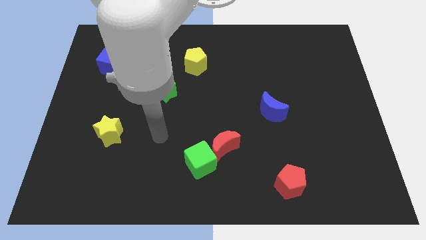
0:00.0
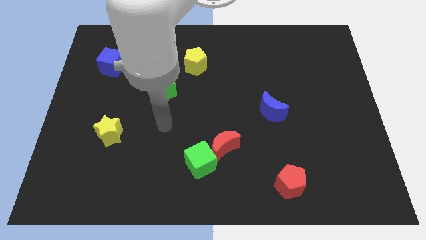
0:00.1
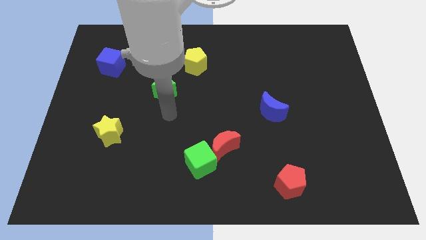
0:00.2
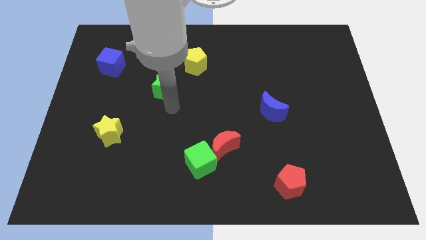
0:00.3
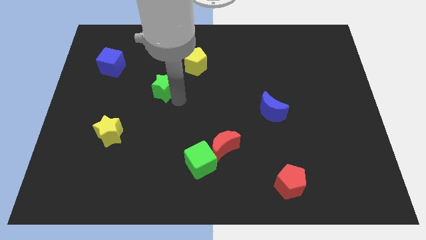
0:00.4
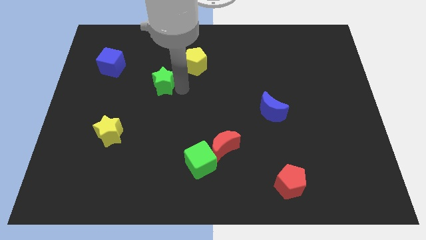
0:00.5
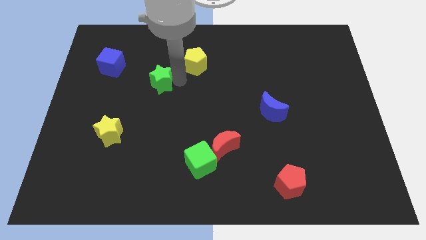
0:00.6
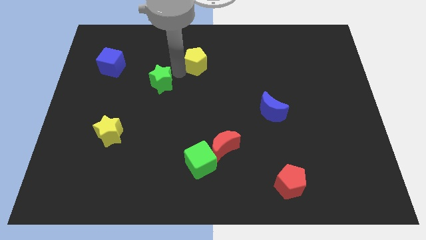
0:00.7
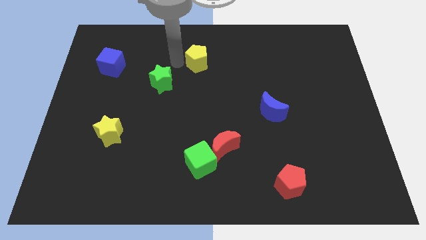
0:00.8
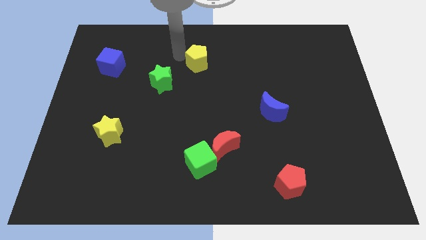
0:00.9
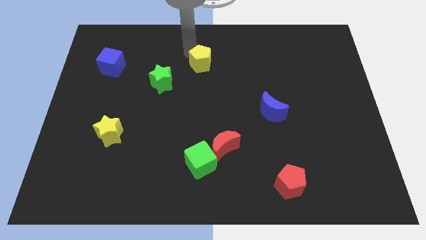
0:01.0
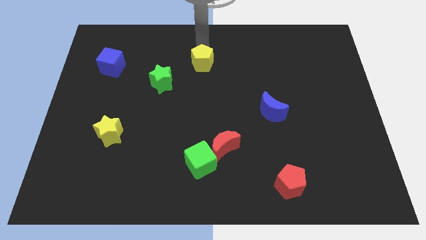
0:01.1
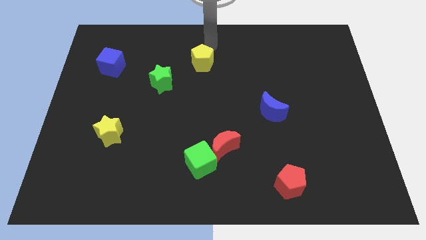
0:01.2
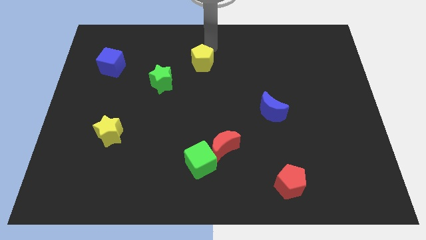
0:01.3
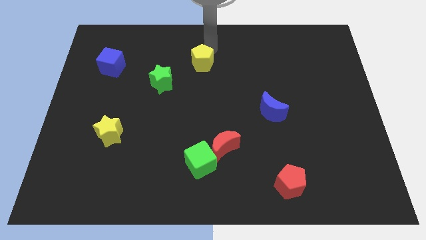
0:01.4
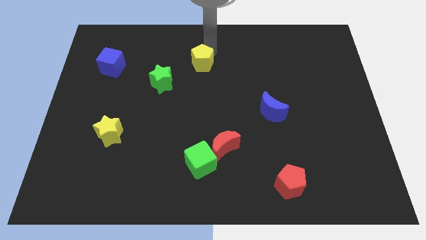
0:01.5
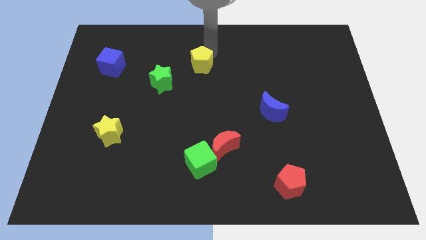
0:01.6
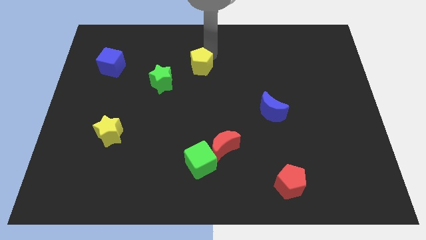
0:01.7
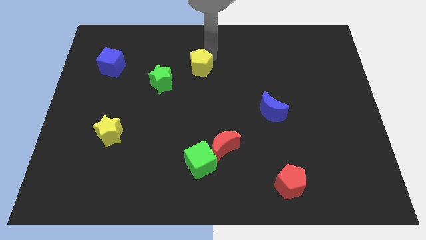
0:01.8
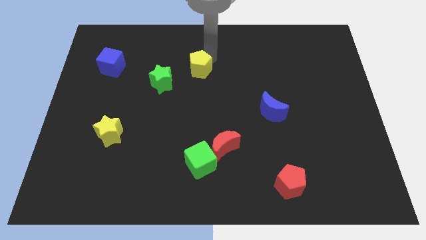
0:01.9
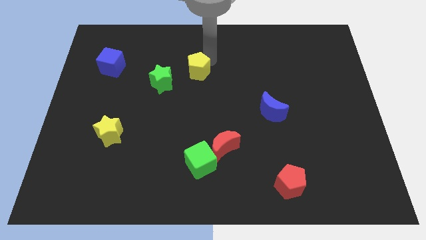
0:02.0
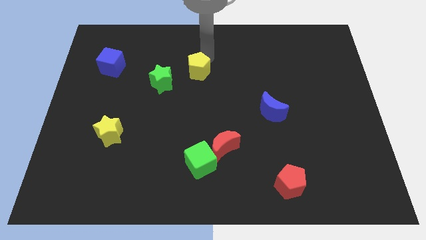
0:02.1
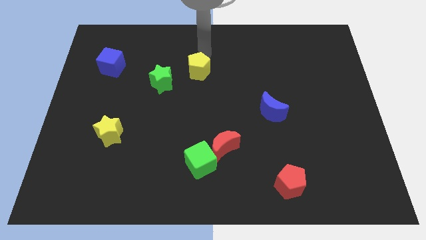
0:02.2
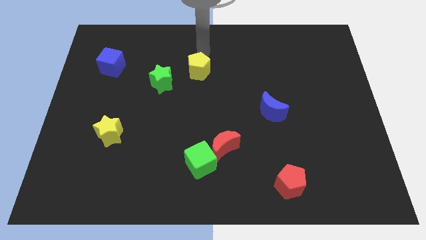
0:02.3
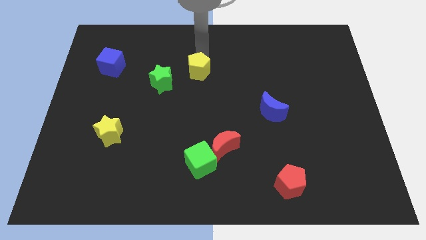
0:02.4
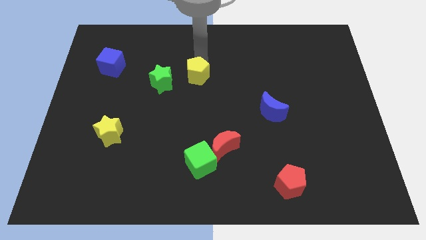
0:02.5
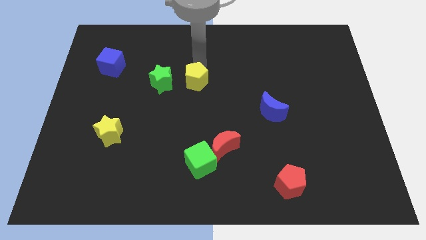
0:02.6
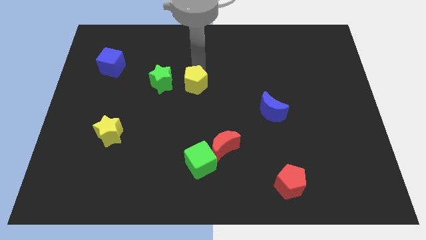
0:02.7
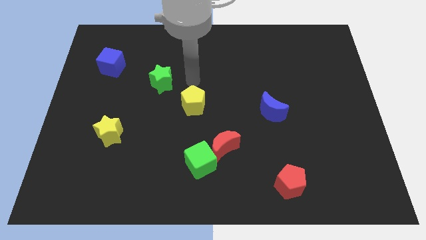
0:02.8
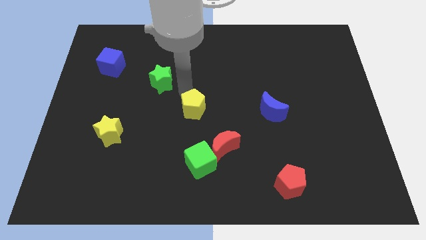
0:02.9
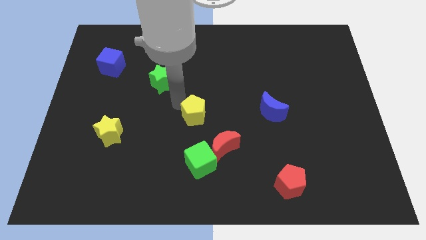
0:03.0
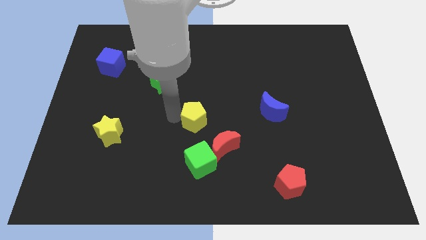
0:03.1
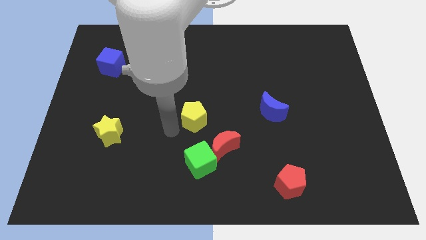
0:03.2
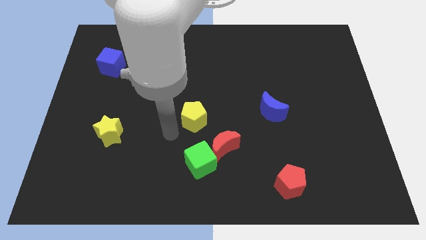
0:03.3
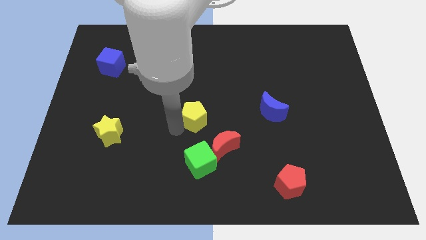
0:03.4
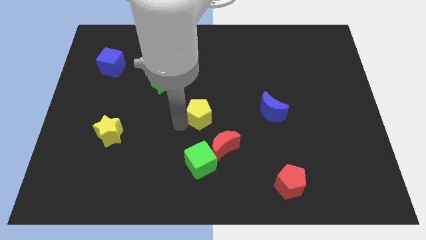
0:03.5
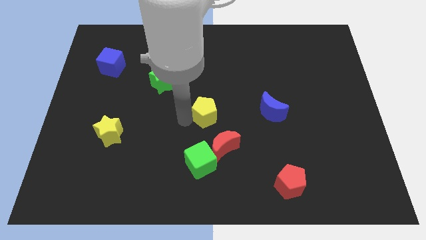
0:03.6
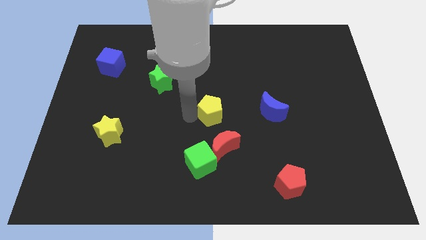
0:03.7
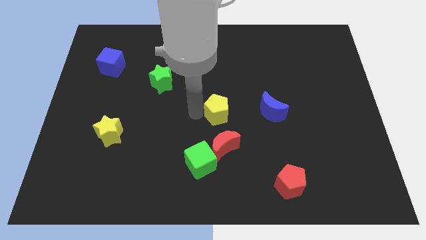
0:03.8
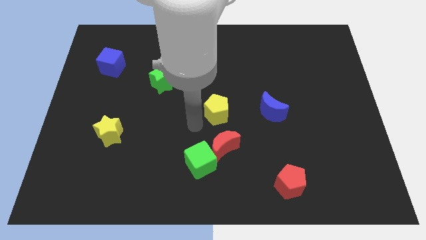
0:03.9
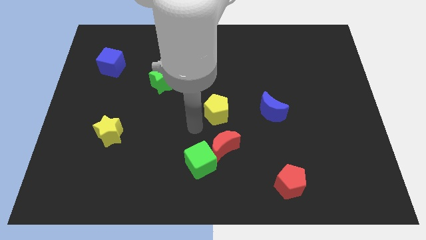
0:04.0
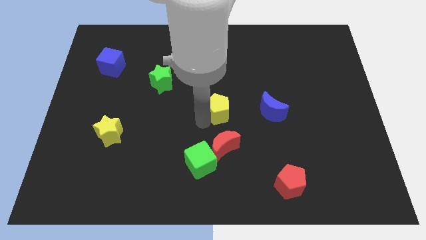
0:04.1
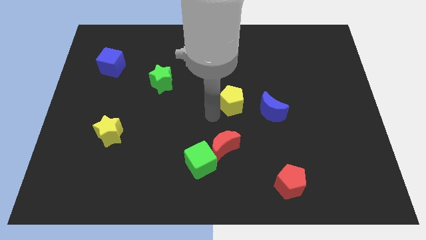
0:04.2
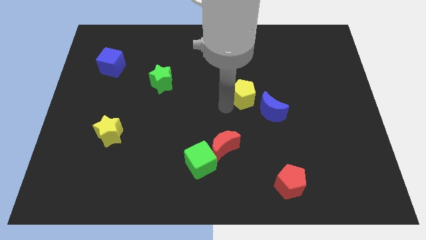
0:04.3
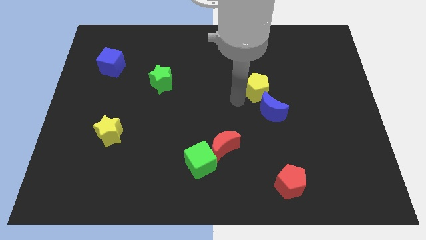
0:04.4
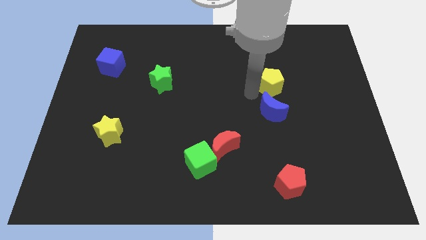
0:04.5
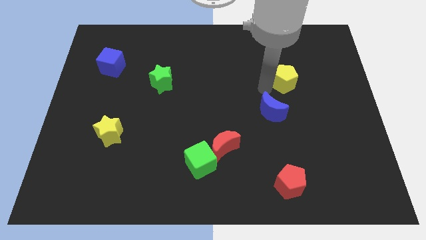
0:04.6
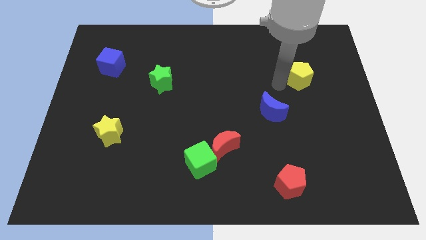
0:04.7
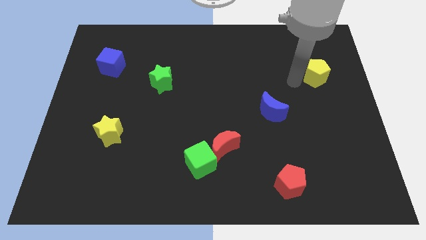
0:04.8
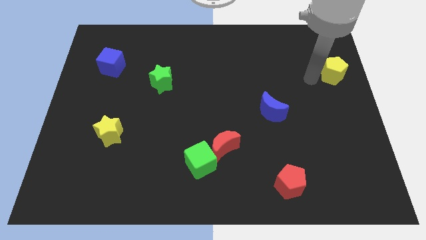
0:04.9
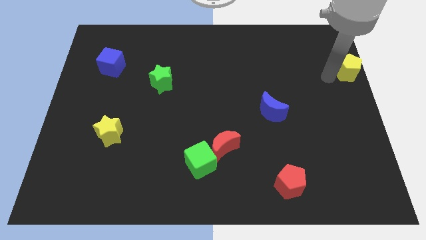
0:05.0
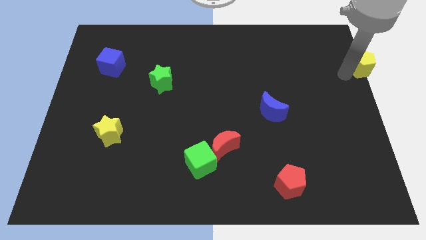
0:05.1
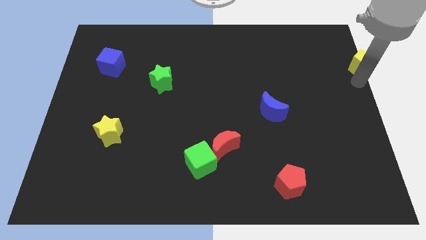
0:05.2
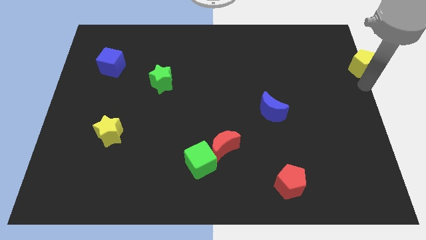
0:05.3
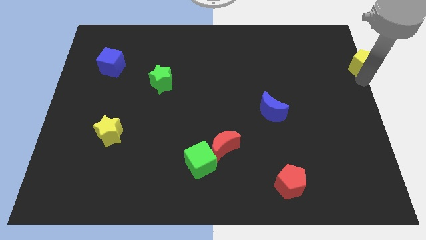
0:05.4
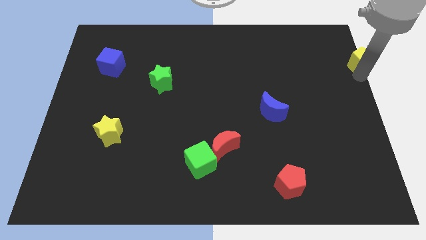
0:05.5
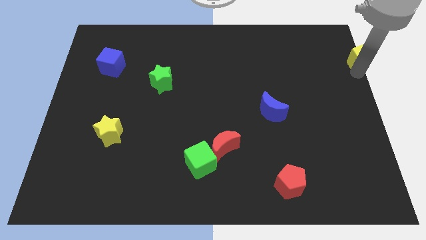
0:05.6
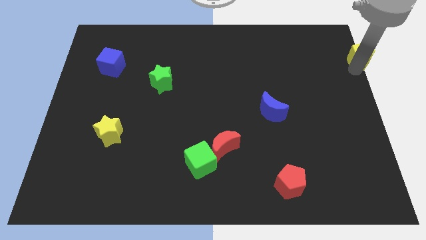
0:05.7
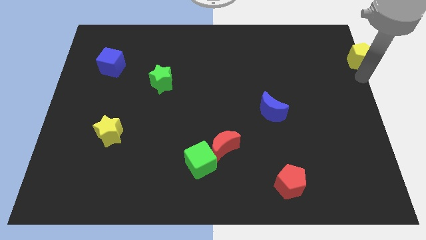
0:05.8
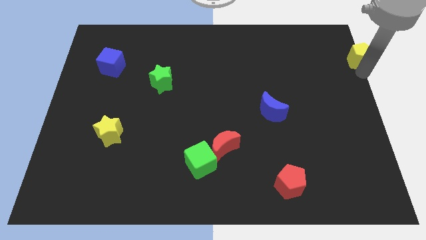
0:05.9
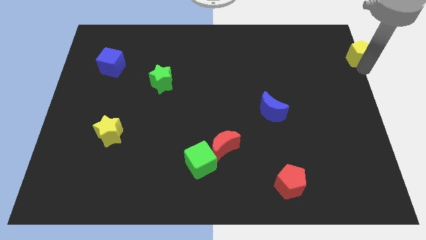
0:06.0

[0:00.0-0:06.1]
push the yellow pentagon to the top right of the board
